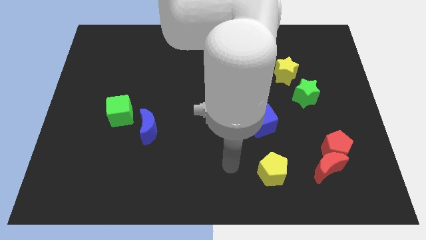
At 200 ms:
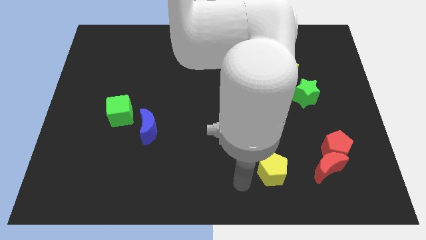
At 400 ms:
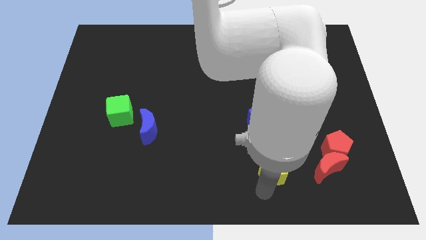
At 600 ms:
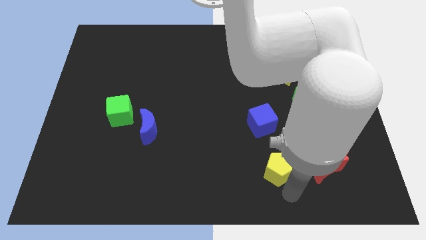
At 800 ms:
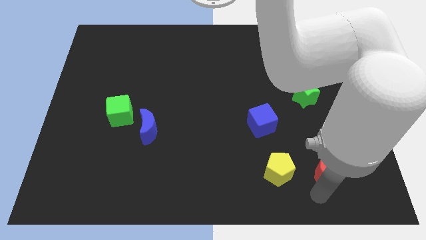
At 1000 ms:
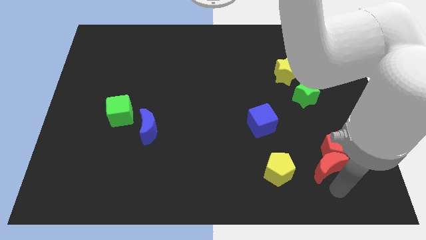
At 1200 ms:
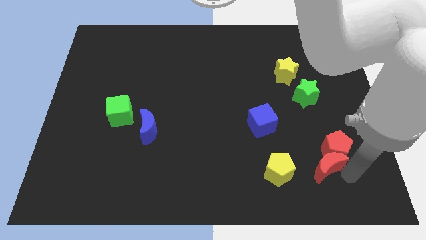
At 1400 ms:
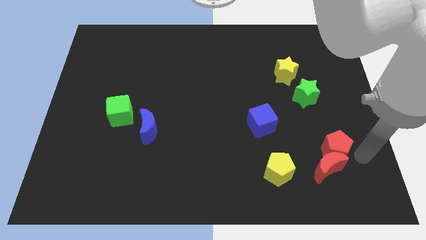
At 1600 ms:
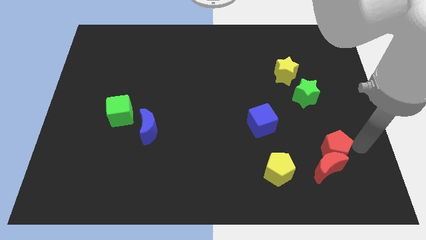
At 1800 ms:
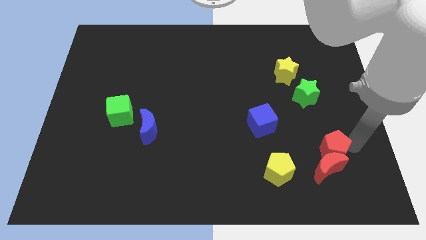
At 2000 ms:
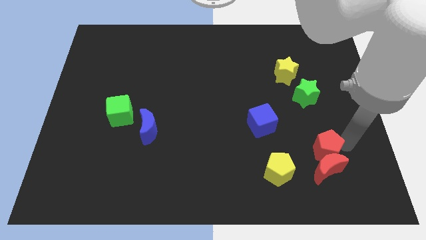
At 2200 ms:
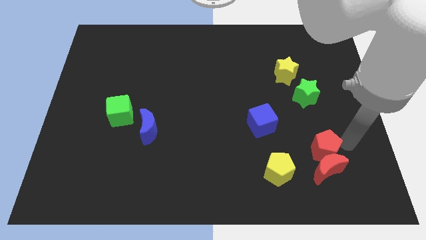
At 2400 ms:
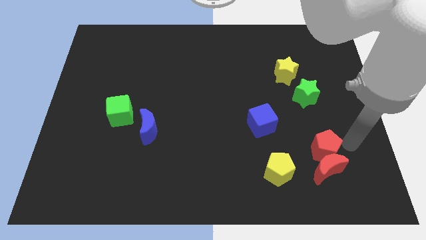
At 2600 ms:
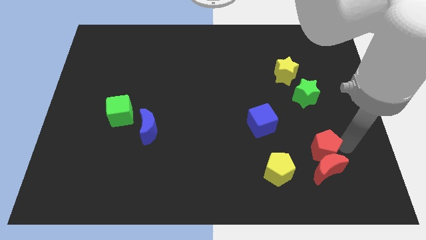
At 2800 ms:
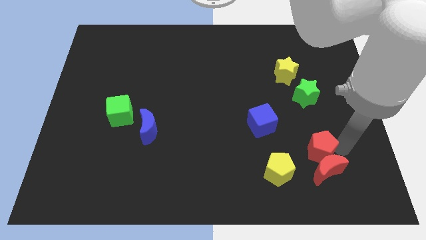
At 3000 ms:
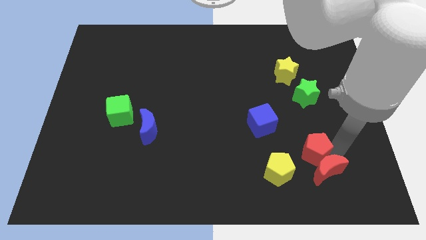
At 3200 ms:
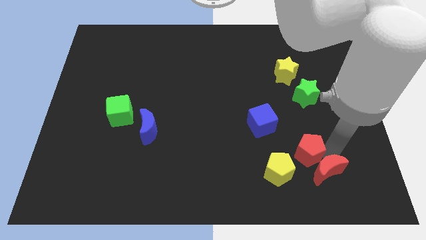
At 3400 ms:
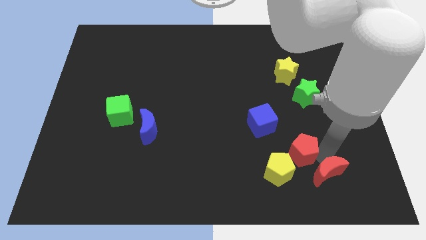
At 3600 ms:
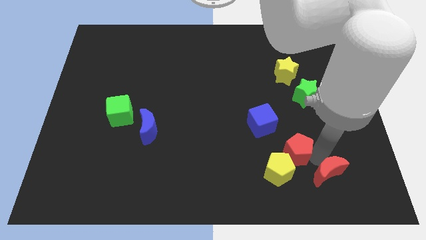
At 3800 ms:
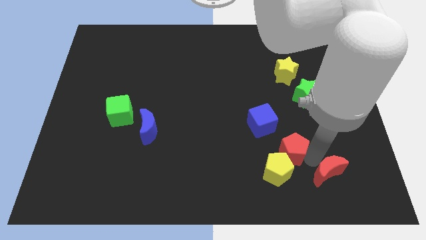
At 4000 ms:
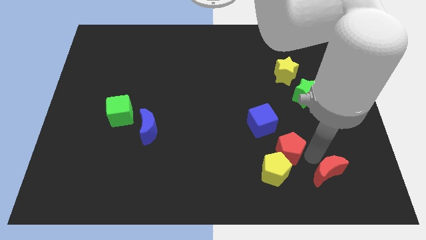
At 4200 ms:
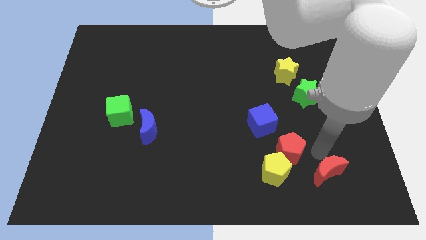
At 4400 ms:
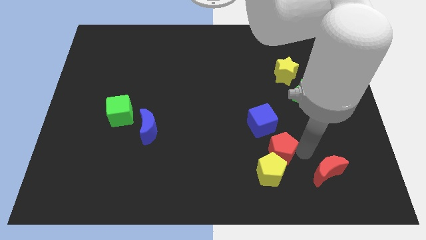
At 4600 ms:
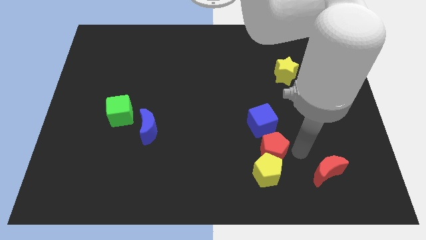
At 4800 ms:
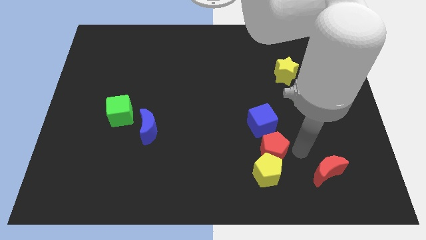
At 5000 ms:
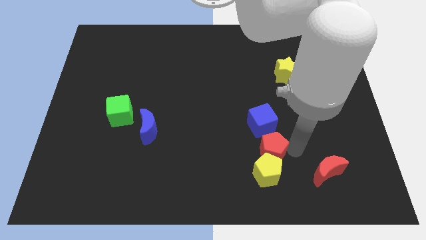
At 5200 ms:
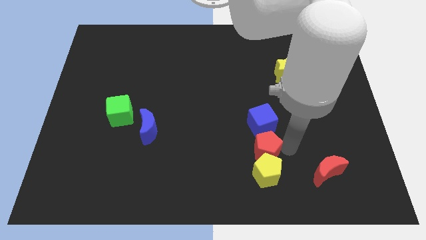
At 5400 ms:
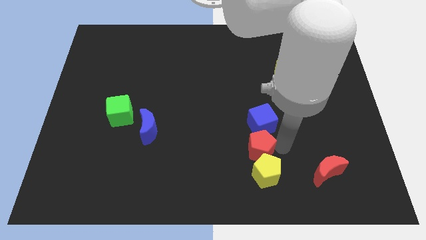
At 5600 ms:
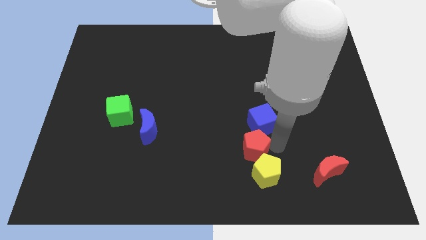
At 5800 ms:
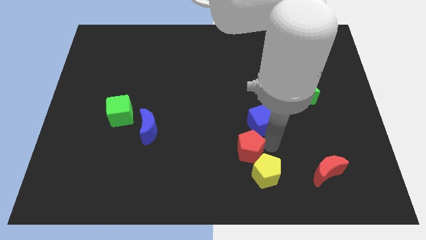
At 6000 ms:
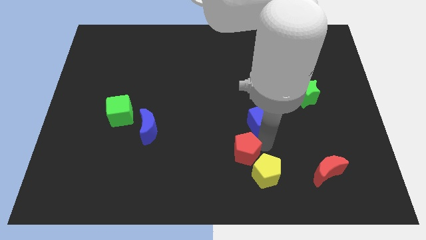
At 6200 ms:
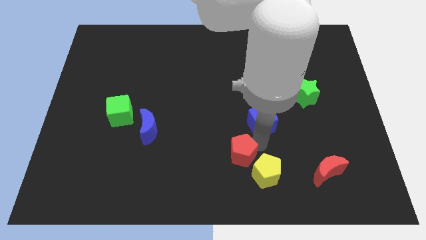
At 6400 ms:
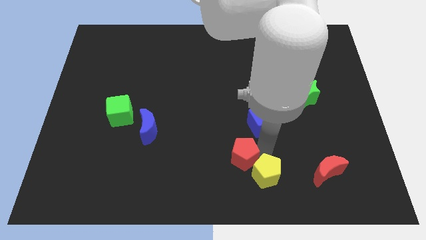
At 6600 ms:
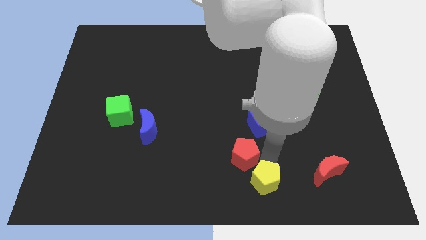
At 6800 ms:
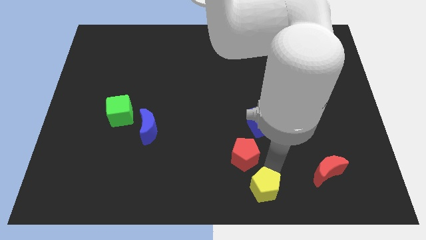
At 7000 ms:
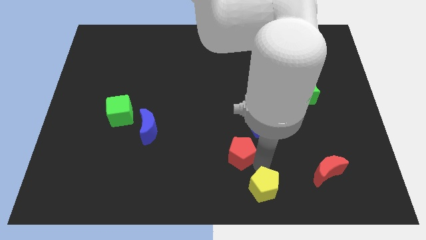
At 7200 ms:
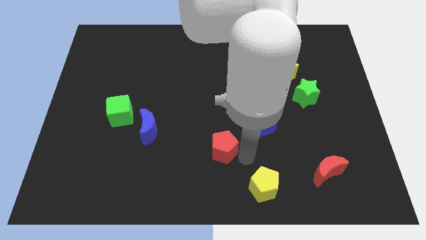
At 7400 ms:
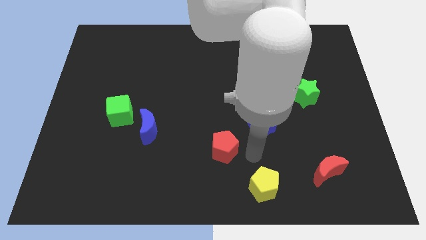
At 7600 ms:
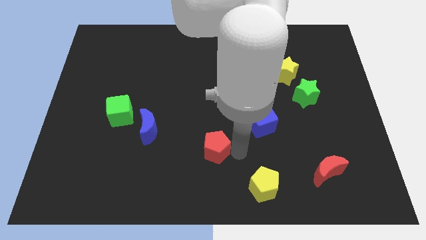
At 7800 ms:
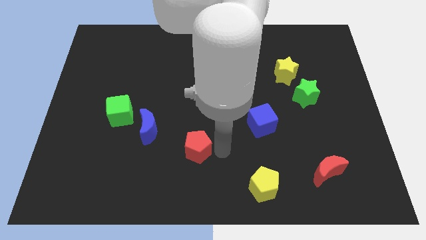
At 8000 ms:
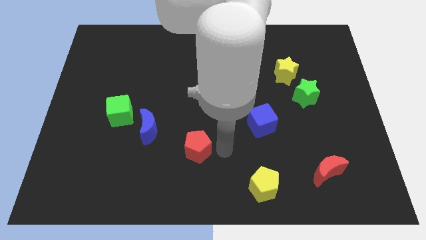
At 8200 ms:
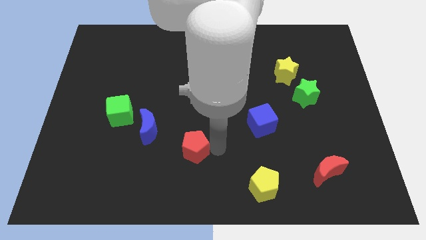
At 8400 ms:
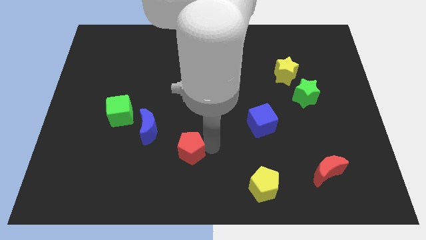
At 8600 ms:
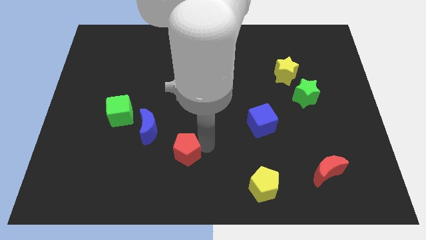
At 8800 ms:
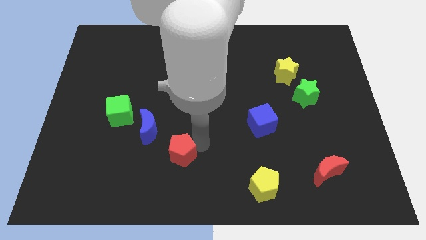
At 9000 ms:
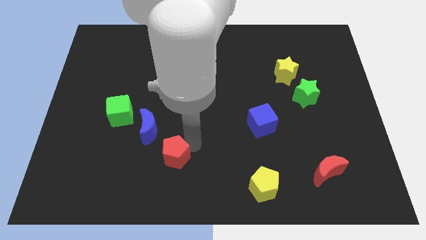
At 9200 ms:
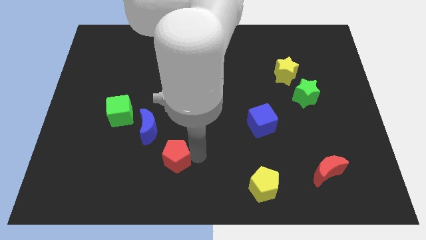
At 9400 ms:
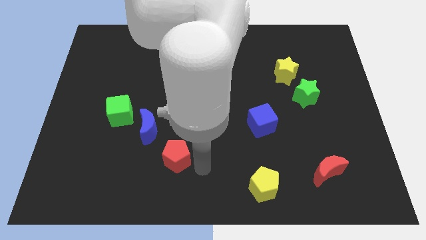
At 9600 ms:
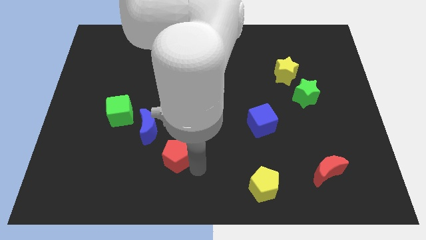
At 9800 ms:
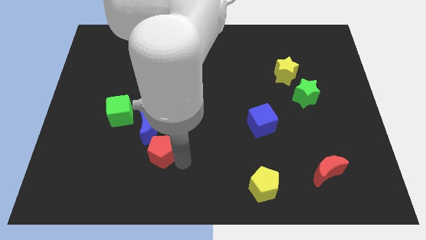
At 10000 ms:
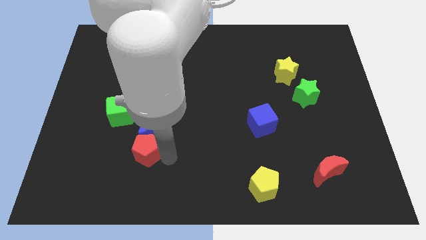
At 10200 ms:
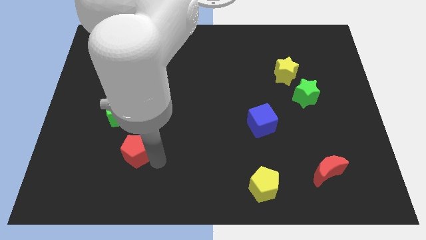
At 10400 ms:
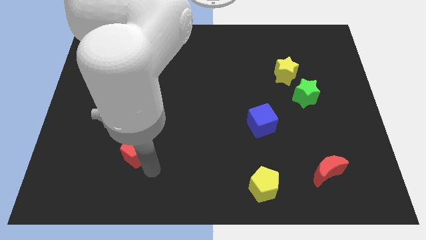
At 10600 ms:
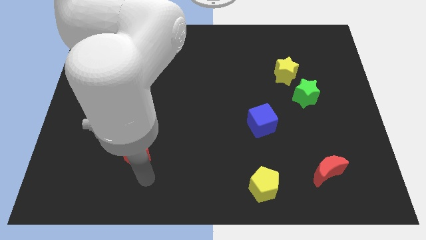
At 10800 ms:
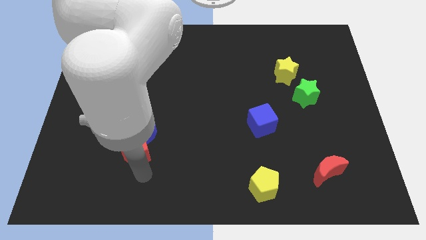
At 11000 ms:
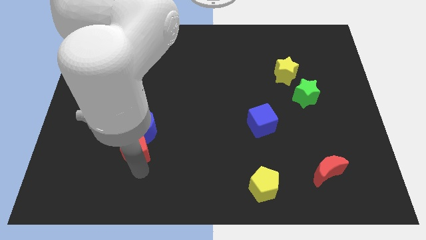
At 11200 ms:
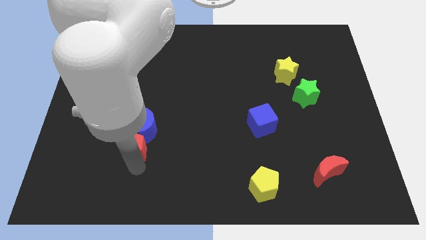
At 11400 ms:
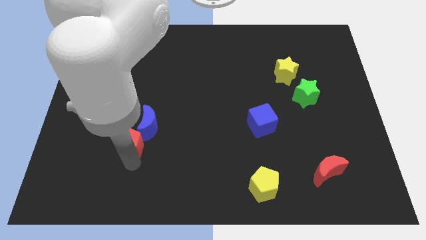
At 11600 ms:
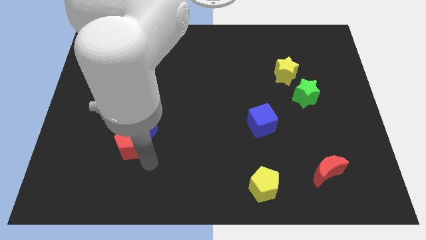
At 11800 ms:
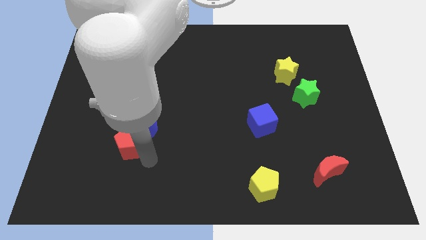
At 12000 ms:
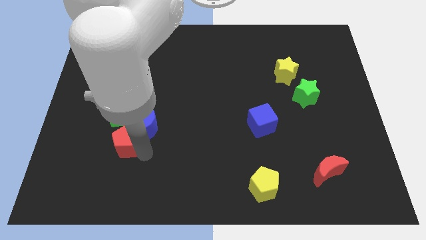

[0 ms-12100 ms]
push the red pentagon left of the blue moon

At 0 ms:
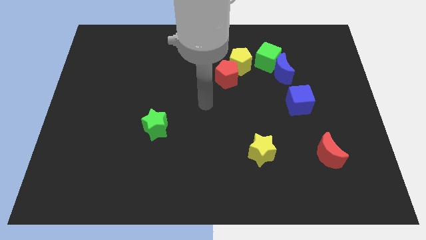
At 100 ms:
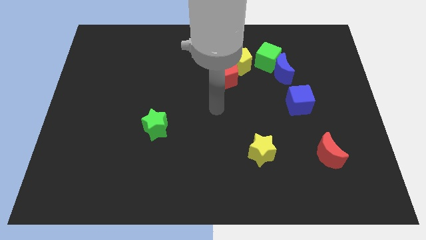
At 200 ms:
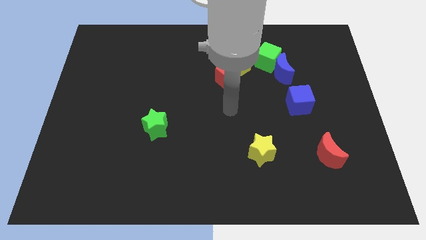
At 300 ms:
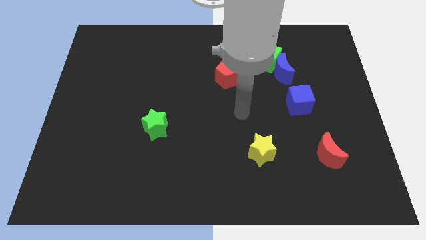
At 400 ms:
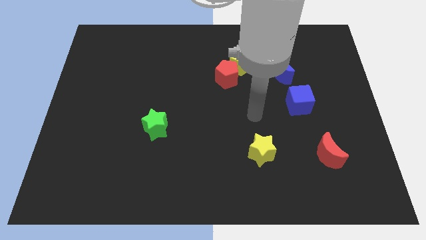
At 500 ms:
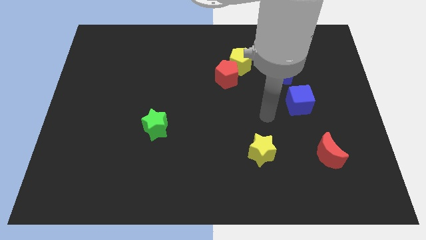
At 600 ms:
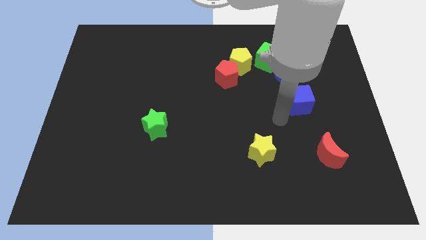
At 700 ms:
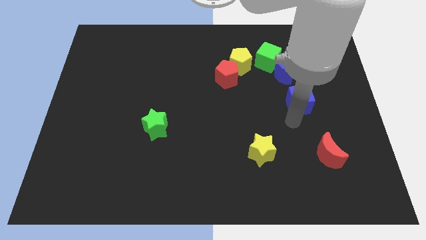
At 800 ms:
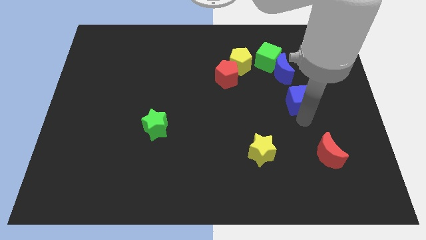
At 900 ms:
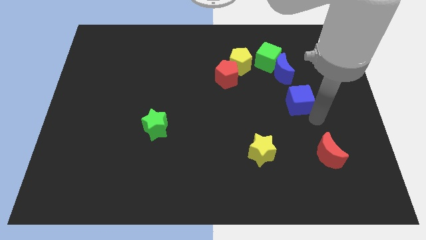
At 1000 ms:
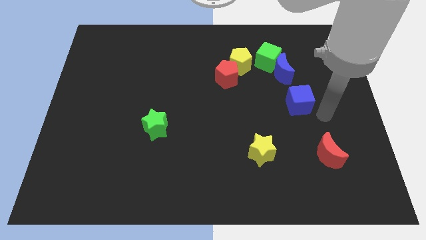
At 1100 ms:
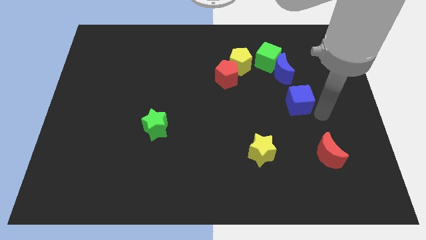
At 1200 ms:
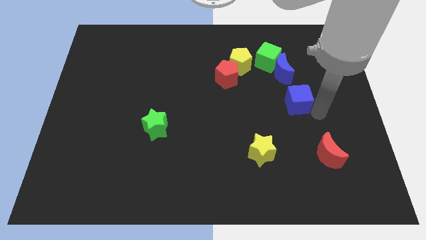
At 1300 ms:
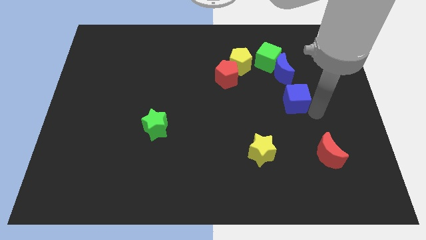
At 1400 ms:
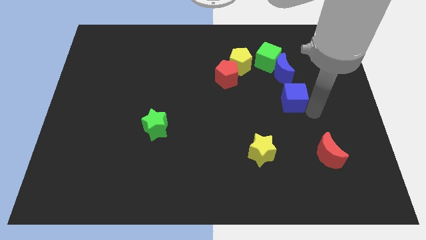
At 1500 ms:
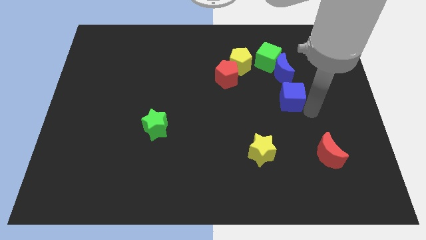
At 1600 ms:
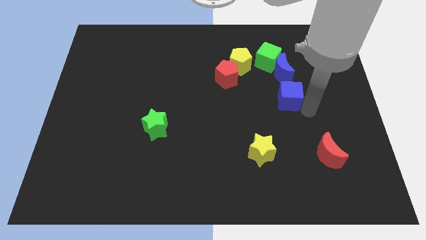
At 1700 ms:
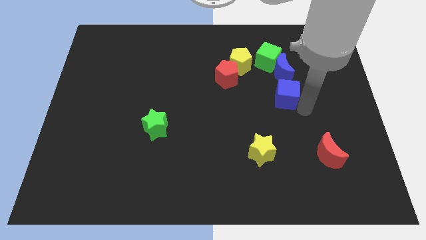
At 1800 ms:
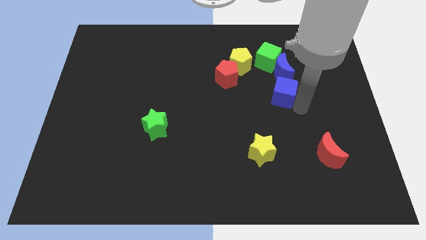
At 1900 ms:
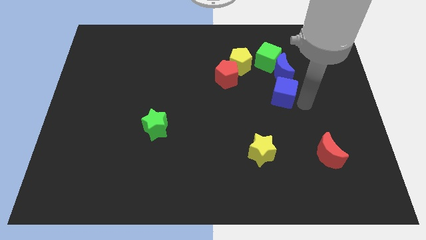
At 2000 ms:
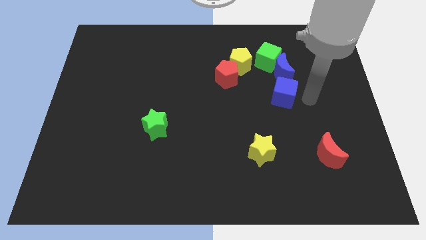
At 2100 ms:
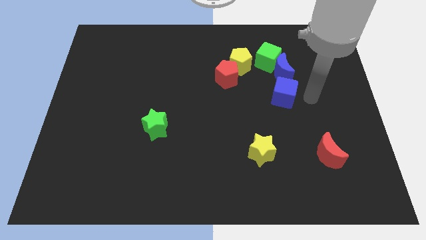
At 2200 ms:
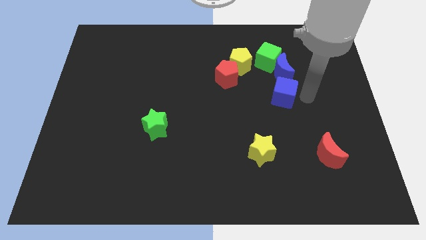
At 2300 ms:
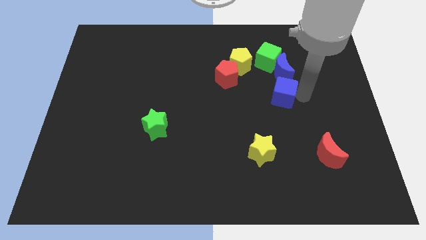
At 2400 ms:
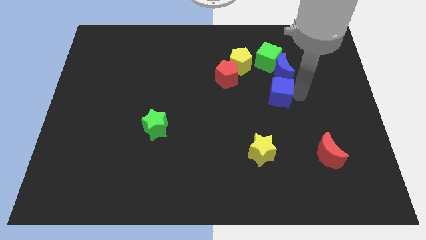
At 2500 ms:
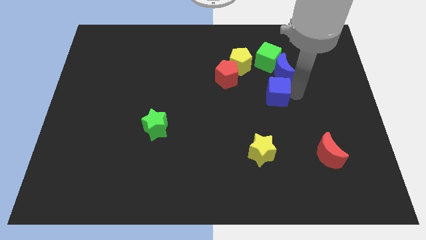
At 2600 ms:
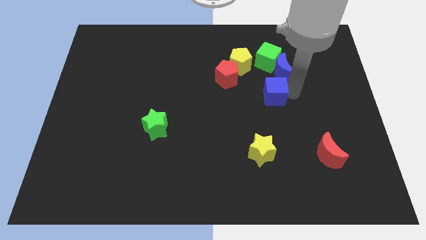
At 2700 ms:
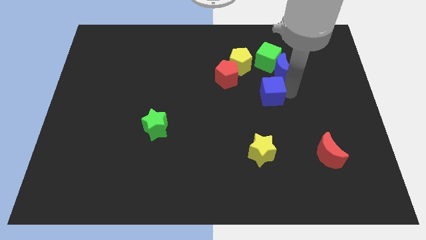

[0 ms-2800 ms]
push the blue cube to the bottom right of the red pentagon
